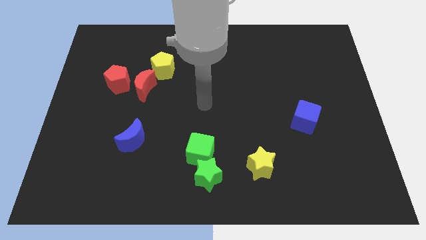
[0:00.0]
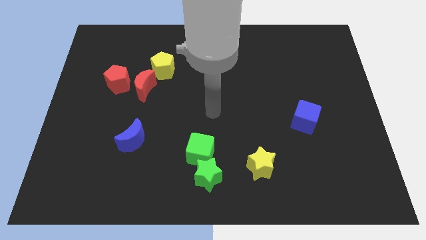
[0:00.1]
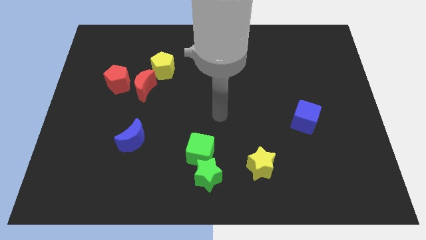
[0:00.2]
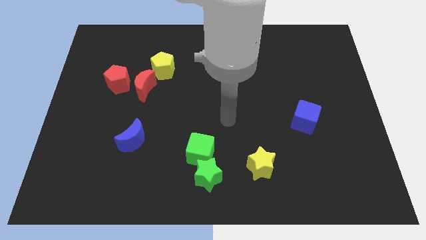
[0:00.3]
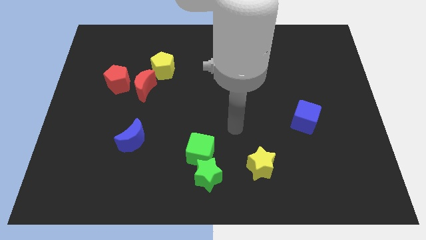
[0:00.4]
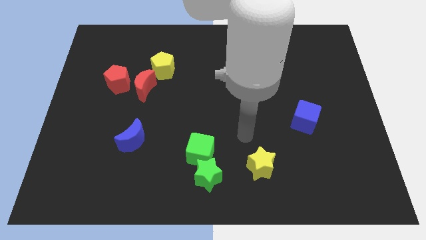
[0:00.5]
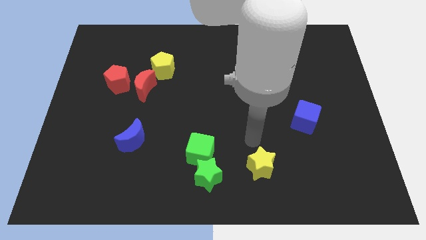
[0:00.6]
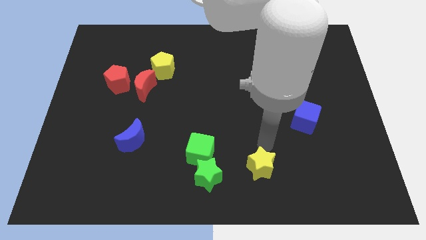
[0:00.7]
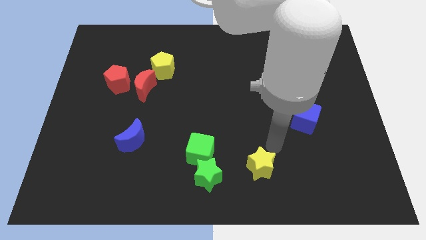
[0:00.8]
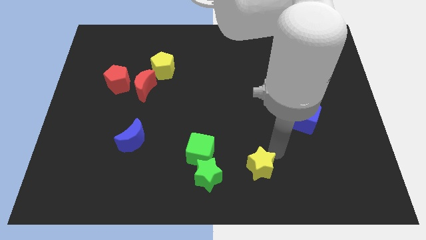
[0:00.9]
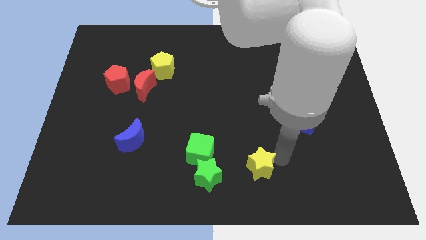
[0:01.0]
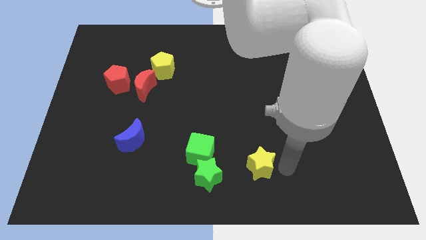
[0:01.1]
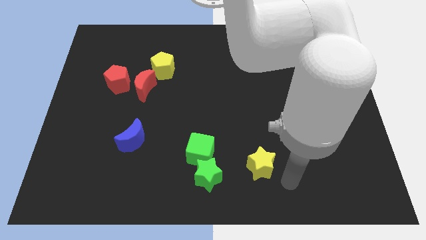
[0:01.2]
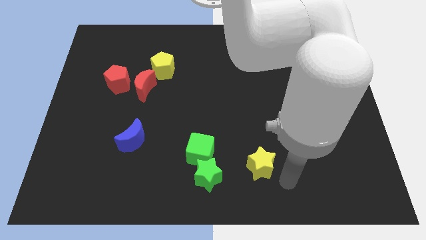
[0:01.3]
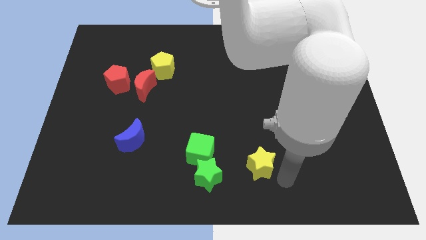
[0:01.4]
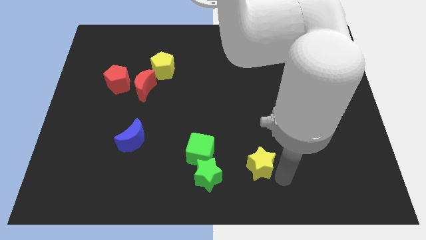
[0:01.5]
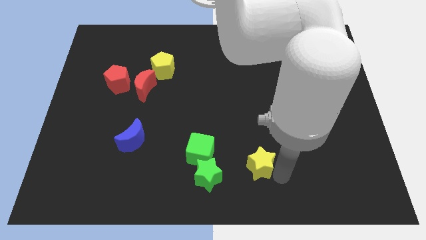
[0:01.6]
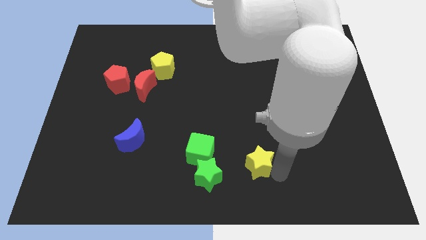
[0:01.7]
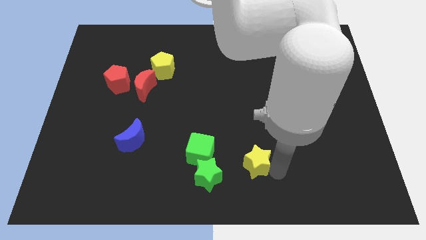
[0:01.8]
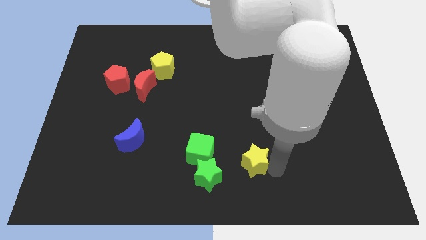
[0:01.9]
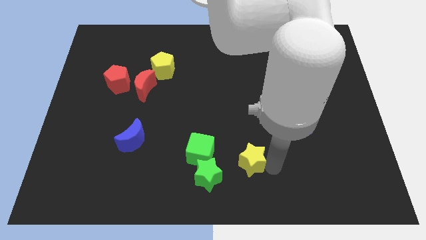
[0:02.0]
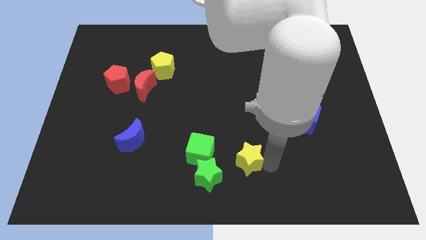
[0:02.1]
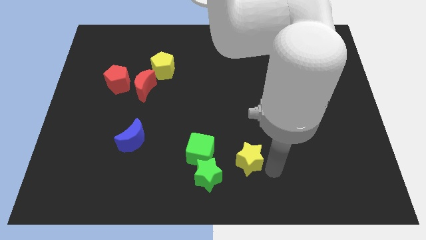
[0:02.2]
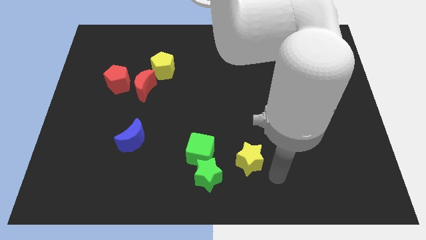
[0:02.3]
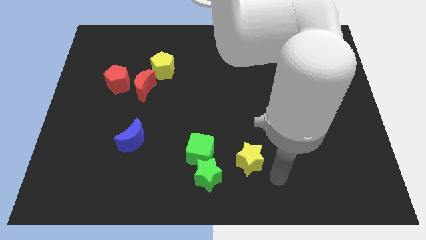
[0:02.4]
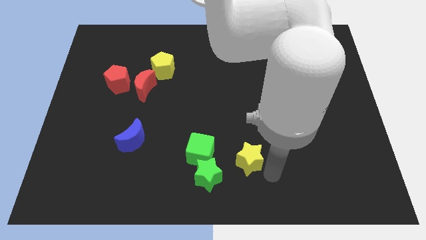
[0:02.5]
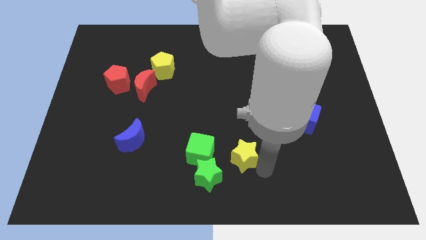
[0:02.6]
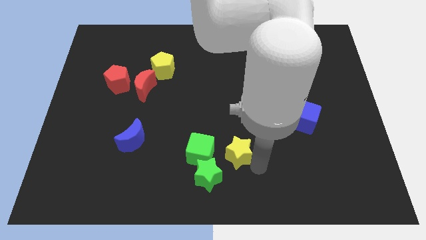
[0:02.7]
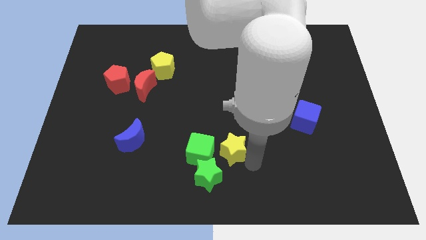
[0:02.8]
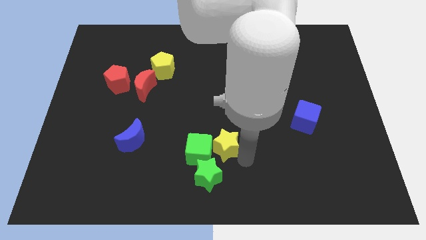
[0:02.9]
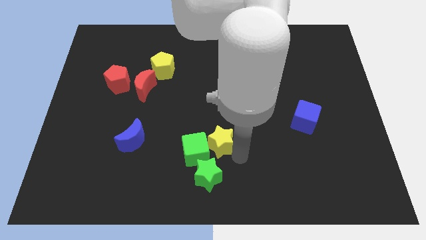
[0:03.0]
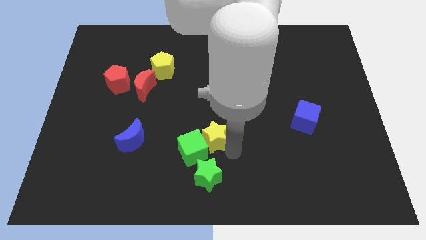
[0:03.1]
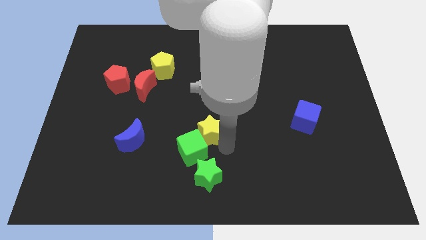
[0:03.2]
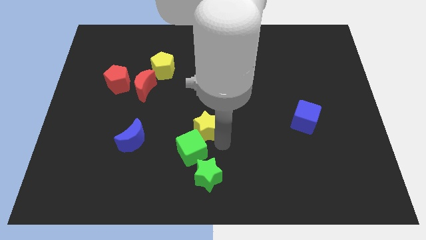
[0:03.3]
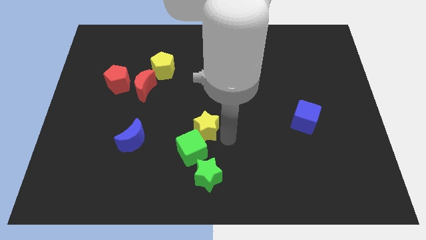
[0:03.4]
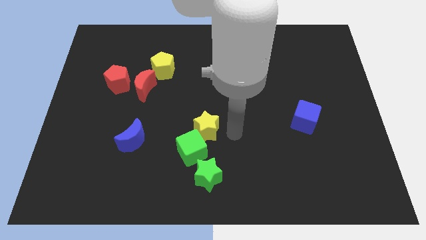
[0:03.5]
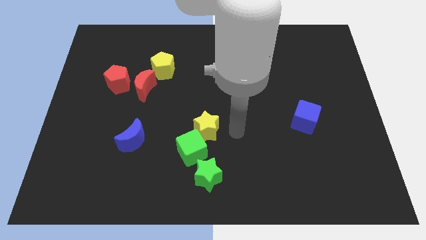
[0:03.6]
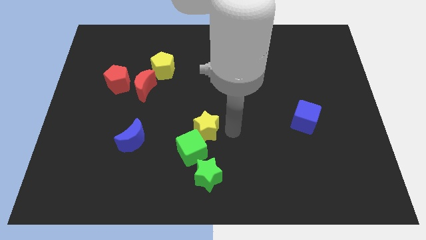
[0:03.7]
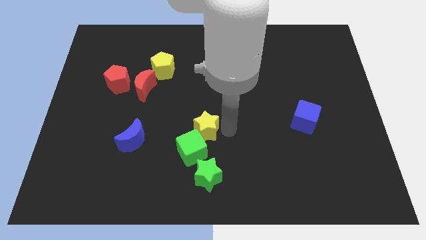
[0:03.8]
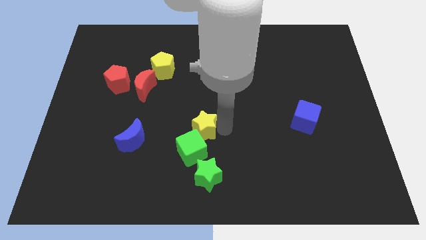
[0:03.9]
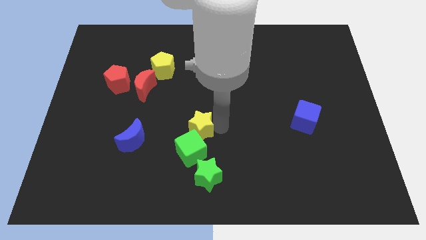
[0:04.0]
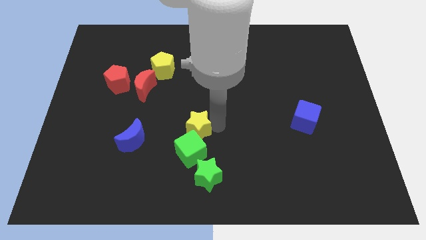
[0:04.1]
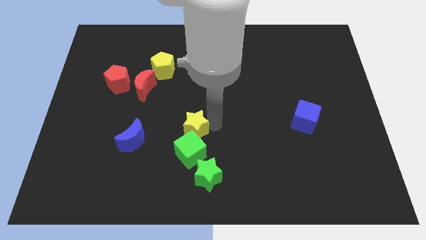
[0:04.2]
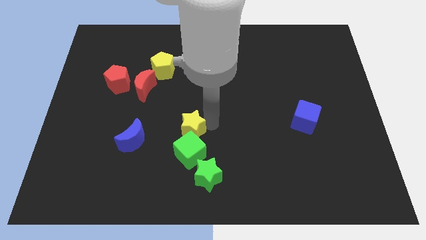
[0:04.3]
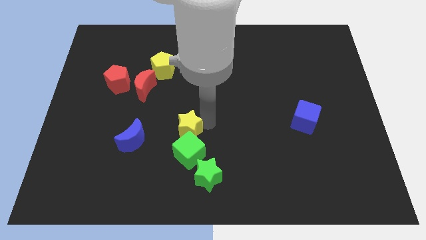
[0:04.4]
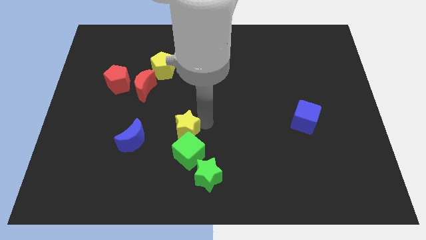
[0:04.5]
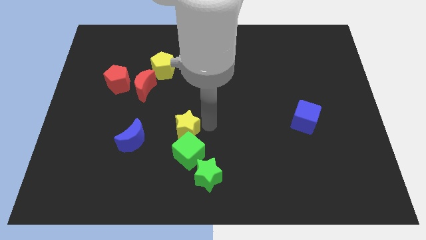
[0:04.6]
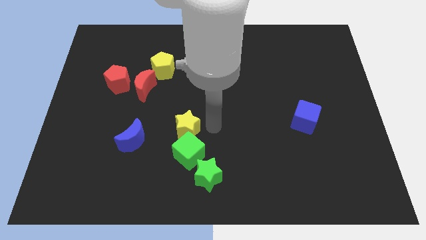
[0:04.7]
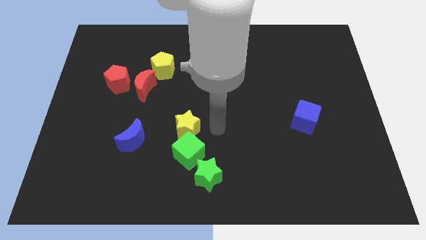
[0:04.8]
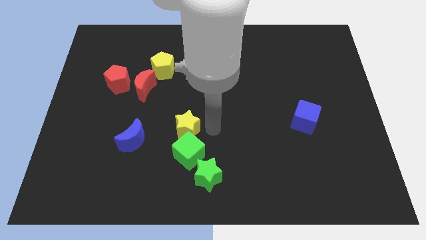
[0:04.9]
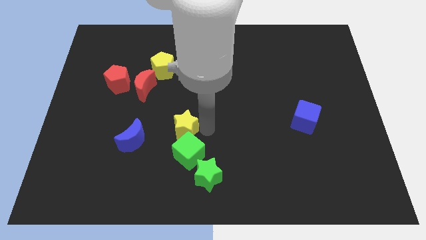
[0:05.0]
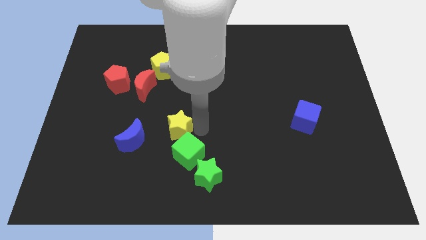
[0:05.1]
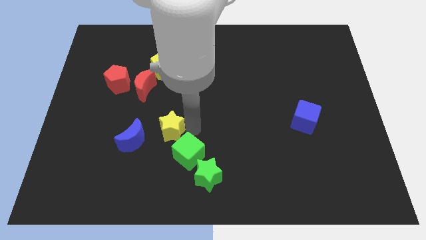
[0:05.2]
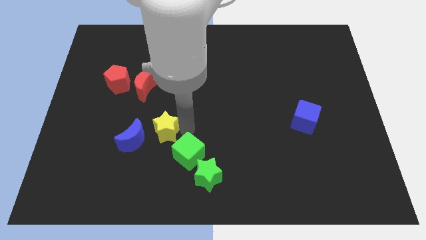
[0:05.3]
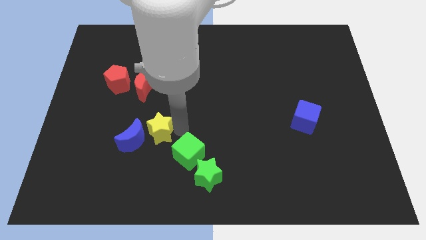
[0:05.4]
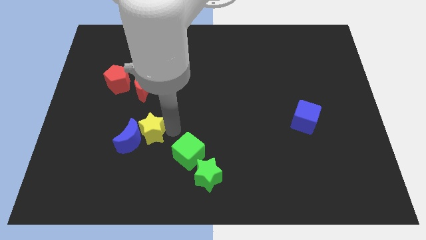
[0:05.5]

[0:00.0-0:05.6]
slide the yellow star to the blue moon
